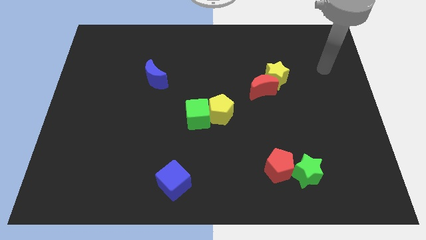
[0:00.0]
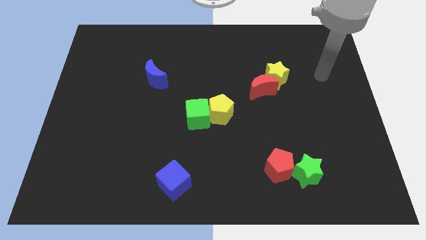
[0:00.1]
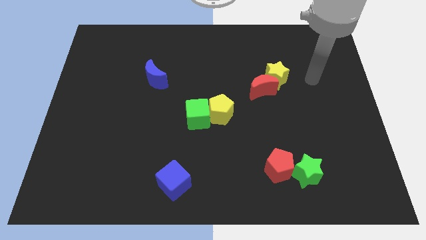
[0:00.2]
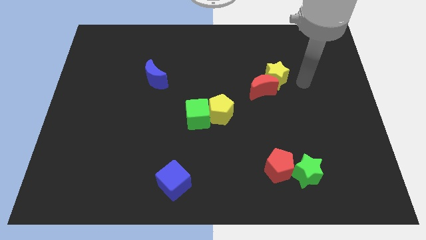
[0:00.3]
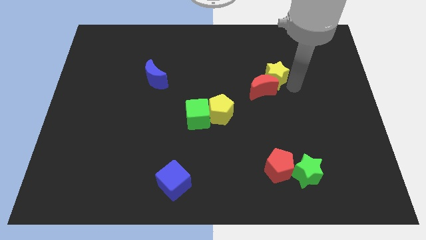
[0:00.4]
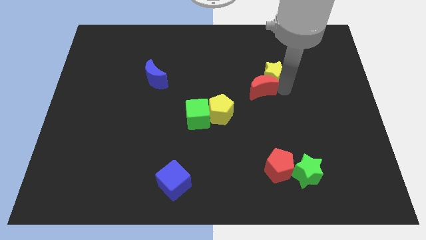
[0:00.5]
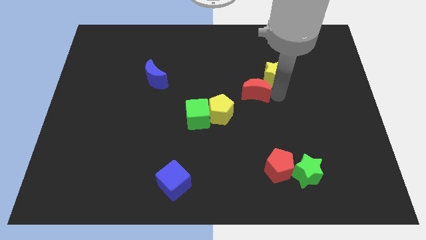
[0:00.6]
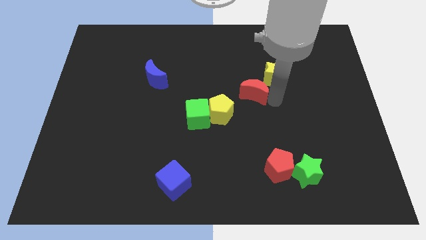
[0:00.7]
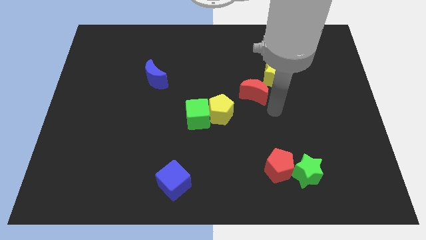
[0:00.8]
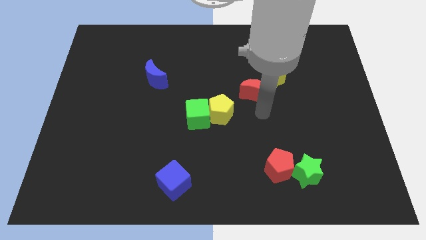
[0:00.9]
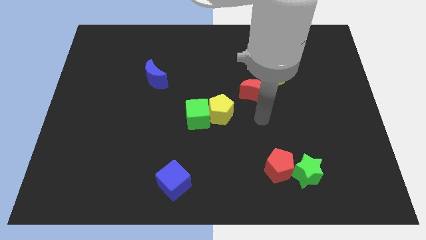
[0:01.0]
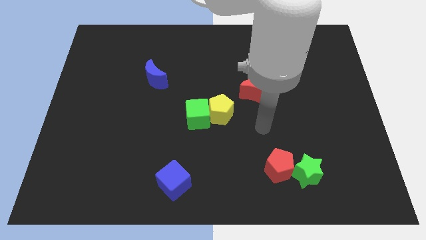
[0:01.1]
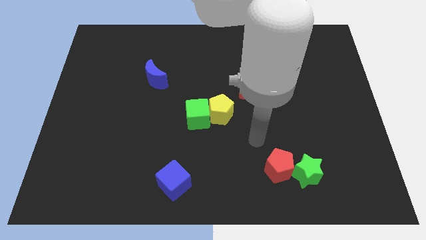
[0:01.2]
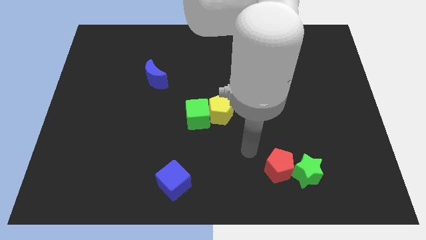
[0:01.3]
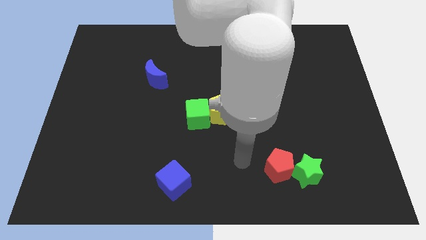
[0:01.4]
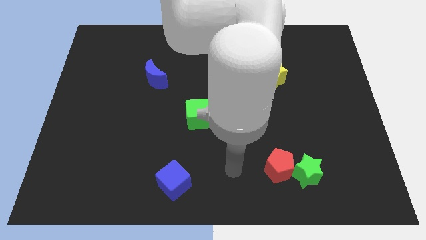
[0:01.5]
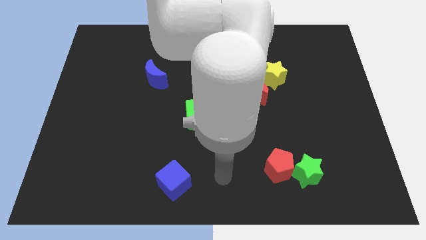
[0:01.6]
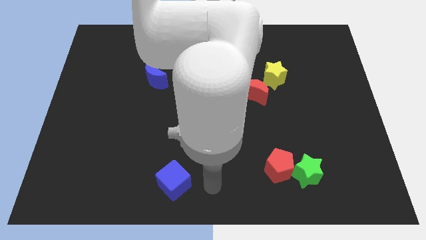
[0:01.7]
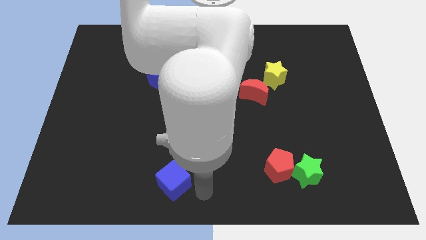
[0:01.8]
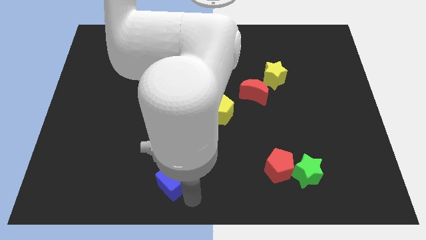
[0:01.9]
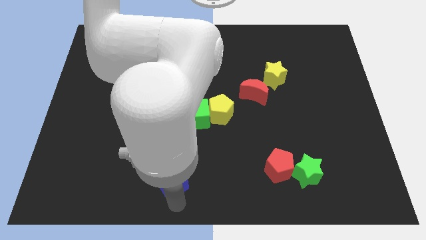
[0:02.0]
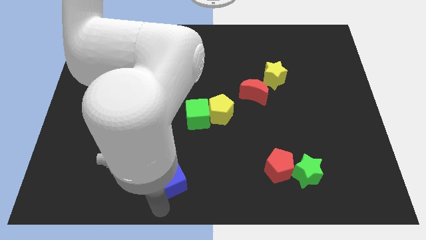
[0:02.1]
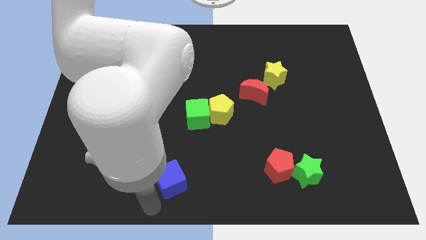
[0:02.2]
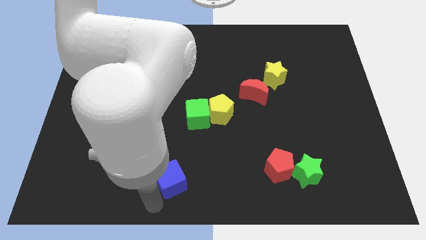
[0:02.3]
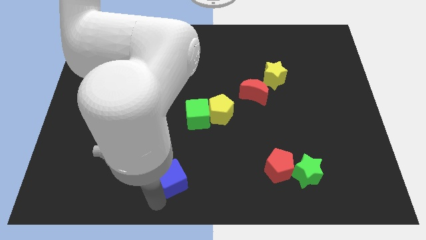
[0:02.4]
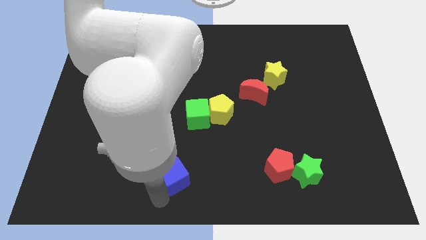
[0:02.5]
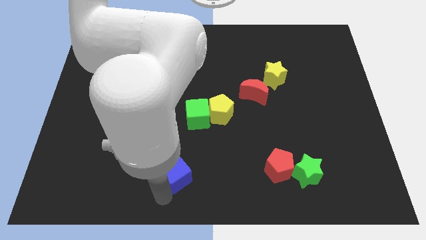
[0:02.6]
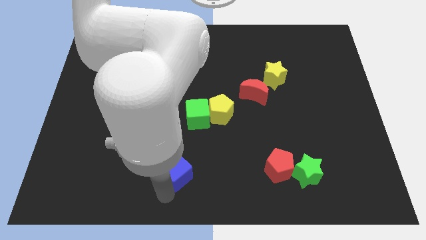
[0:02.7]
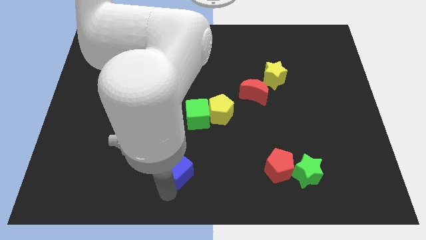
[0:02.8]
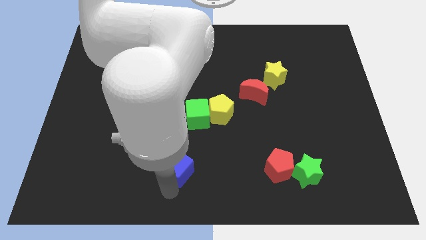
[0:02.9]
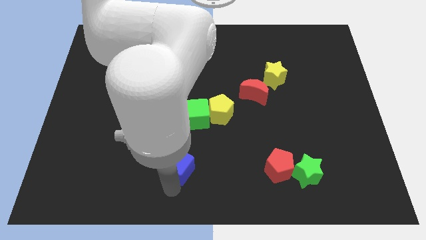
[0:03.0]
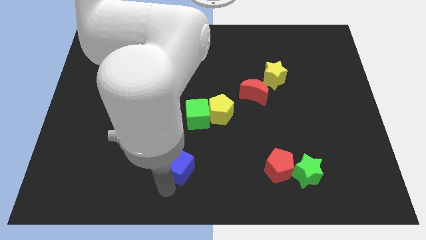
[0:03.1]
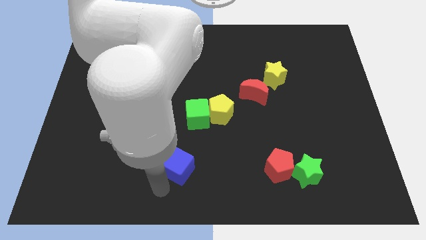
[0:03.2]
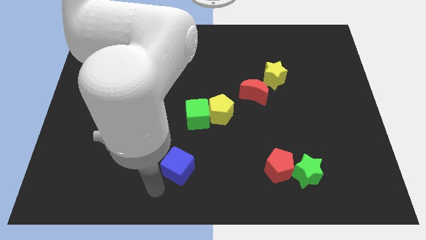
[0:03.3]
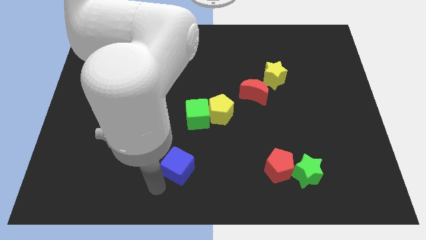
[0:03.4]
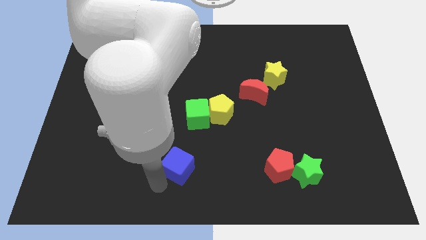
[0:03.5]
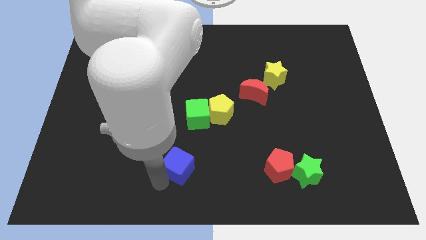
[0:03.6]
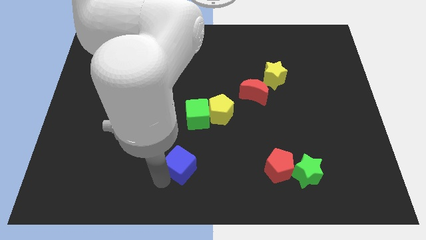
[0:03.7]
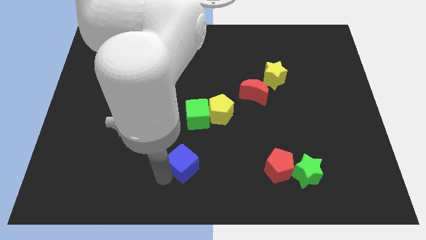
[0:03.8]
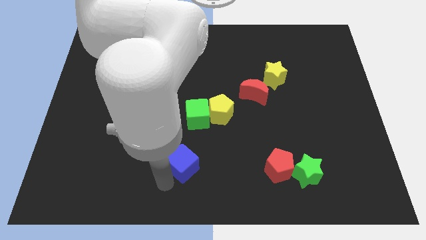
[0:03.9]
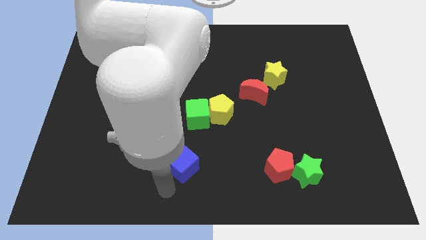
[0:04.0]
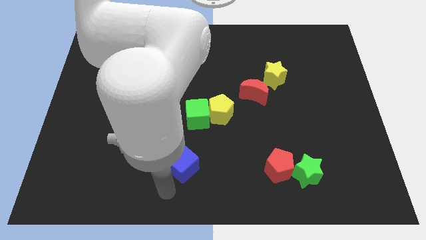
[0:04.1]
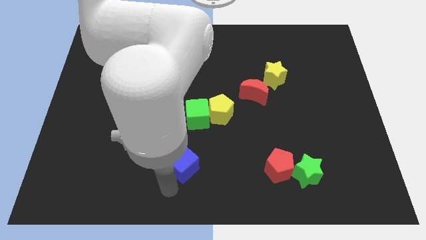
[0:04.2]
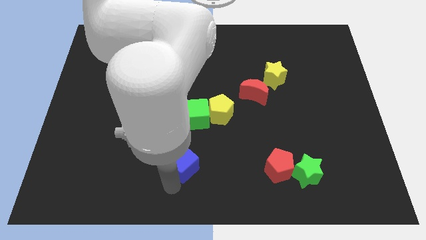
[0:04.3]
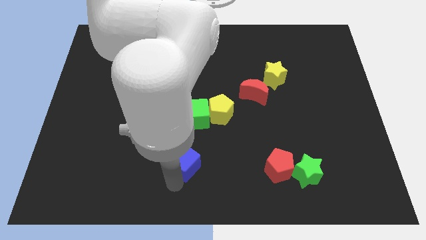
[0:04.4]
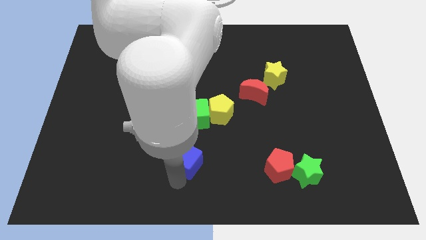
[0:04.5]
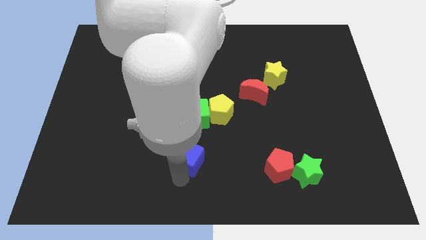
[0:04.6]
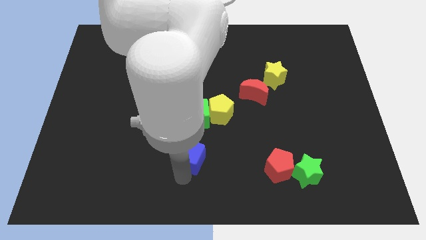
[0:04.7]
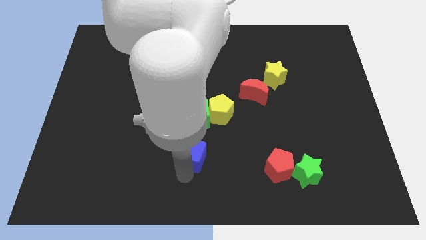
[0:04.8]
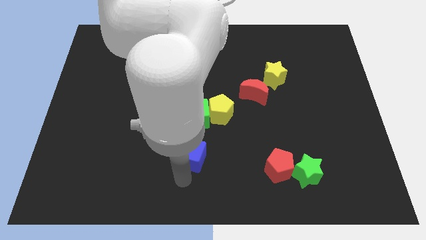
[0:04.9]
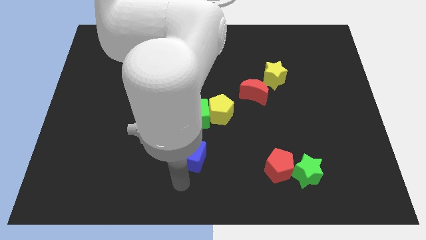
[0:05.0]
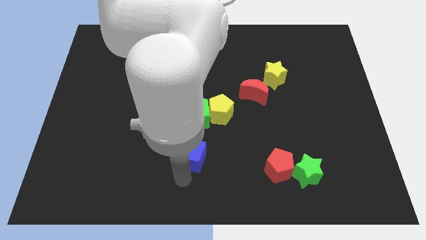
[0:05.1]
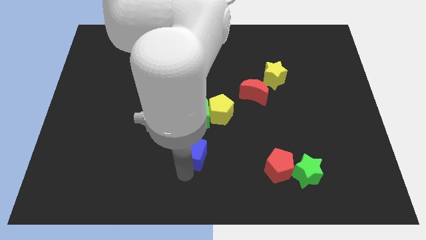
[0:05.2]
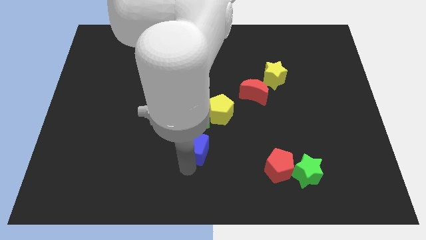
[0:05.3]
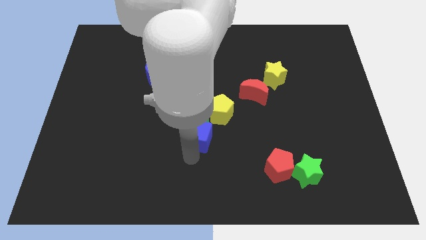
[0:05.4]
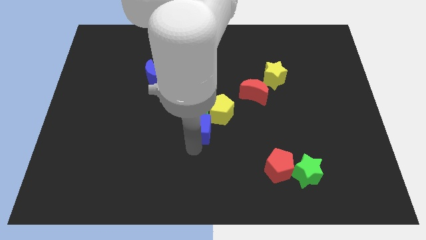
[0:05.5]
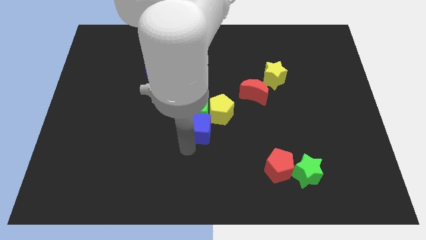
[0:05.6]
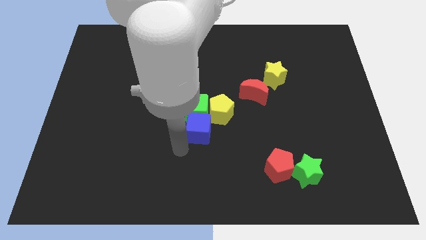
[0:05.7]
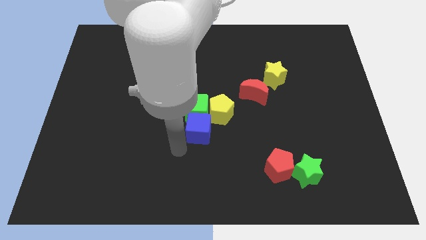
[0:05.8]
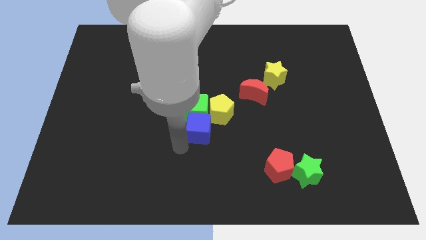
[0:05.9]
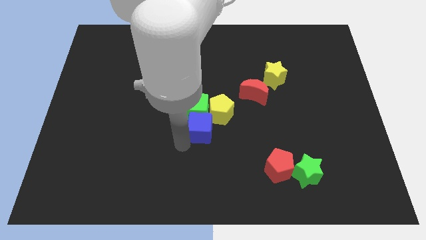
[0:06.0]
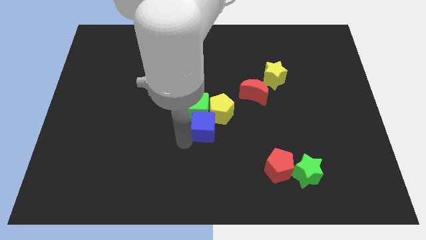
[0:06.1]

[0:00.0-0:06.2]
push the blue cube next to the yellow pentagon

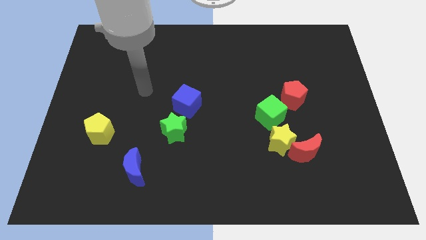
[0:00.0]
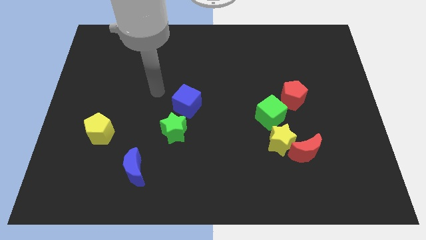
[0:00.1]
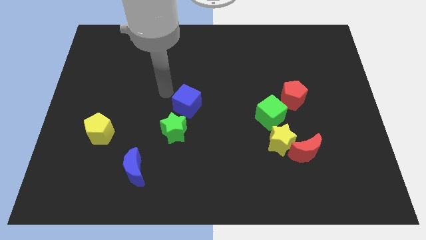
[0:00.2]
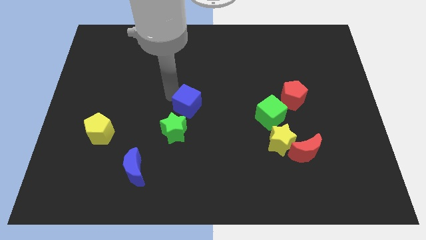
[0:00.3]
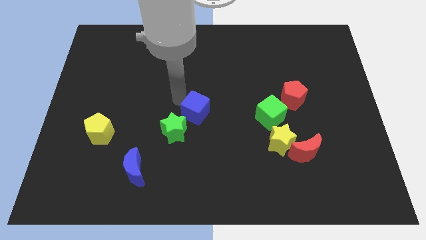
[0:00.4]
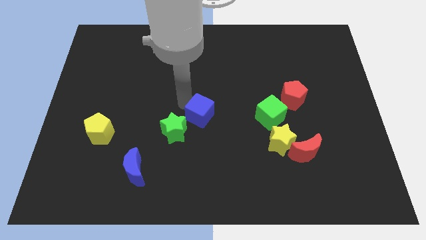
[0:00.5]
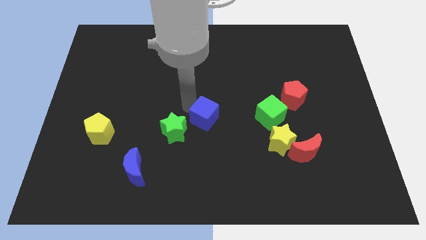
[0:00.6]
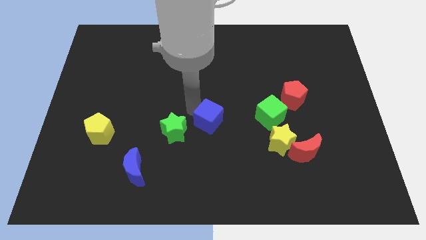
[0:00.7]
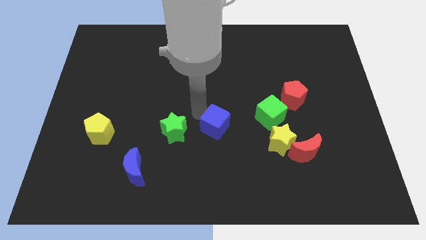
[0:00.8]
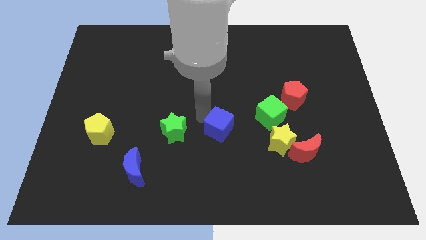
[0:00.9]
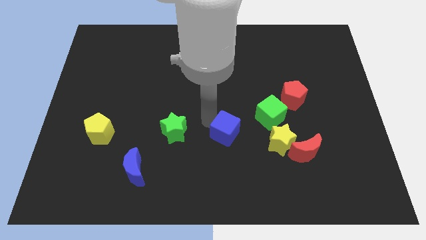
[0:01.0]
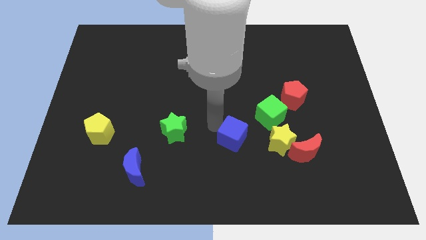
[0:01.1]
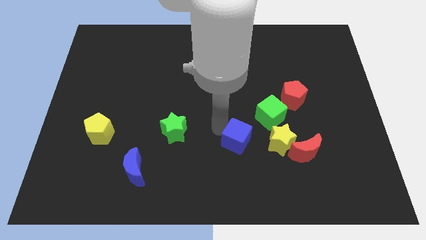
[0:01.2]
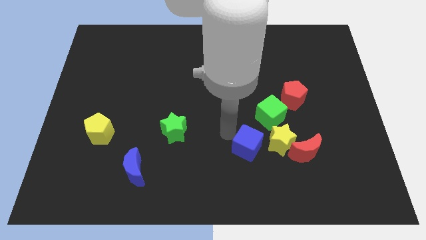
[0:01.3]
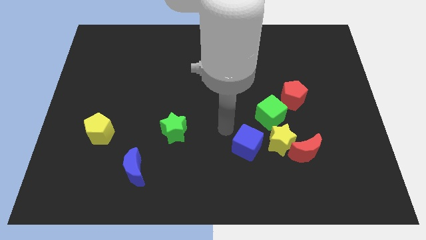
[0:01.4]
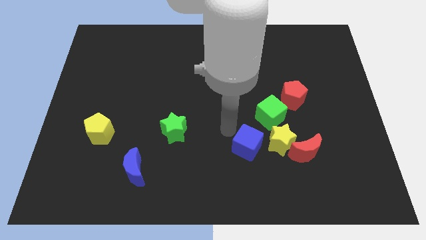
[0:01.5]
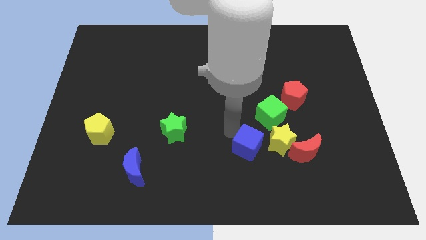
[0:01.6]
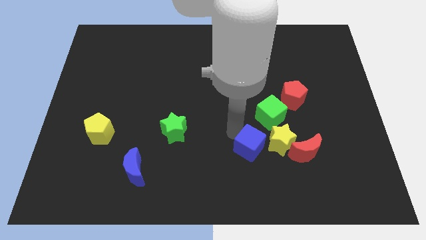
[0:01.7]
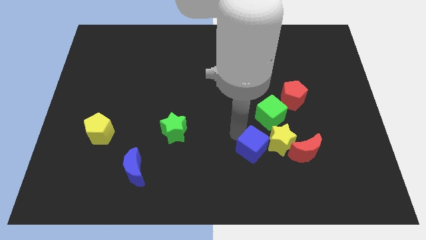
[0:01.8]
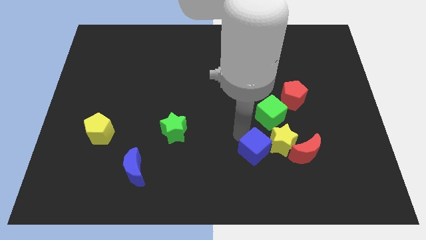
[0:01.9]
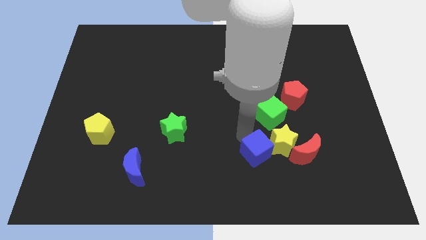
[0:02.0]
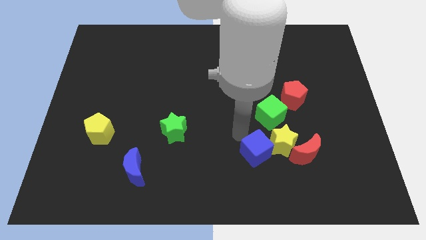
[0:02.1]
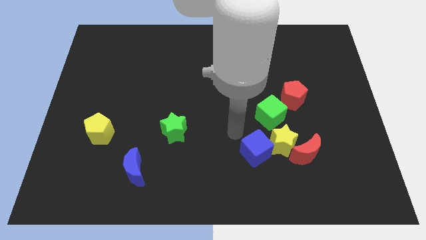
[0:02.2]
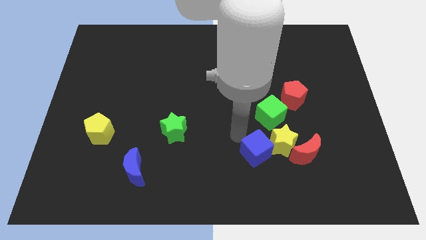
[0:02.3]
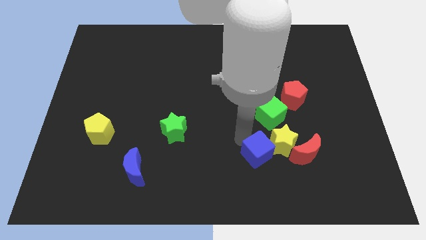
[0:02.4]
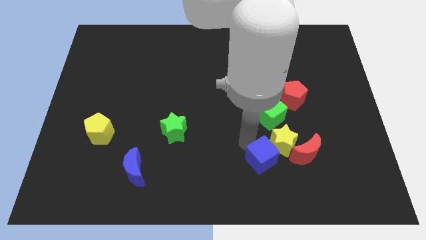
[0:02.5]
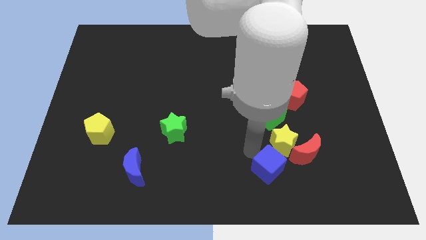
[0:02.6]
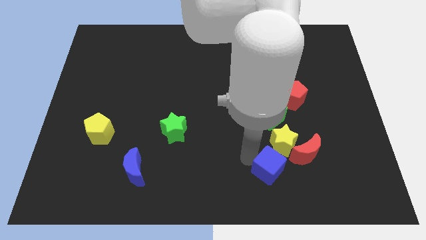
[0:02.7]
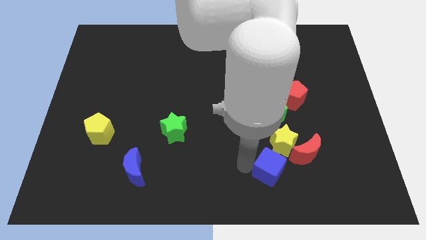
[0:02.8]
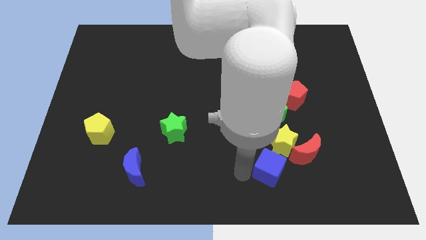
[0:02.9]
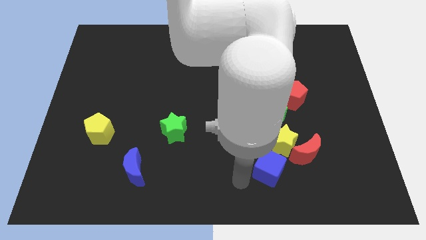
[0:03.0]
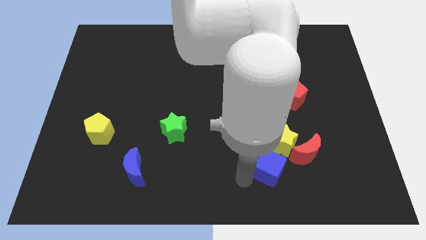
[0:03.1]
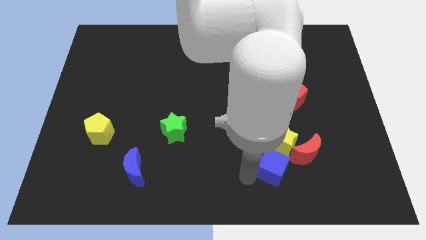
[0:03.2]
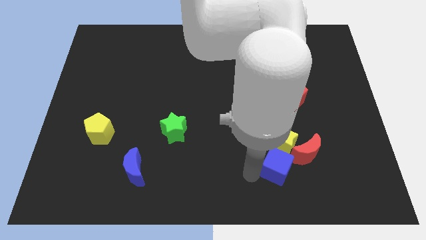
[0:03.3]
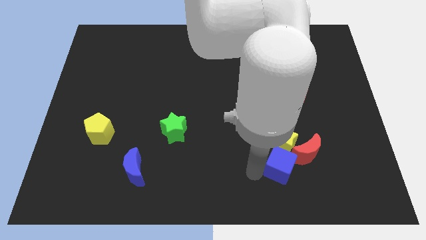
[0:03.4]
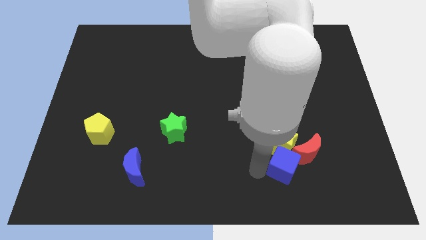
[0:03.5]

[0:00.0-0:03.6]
move the blue cube close to the red moon
